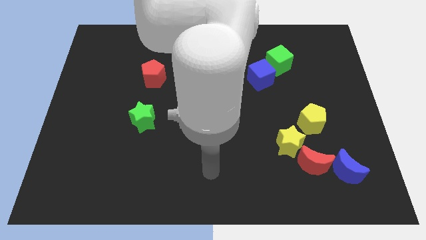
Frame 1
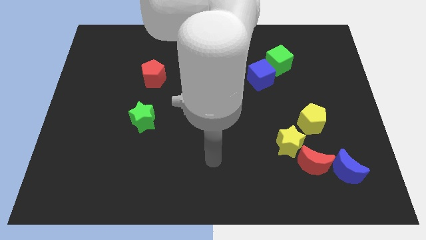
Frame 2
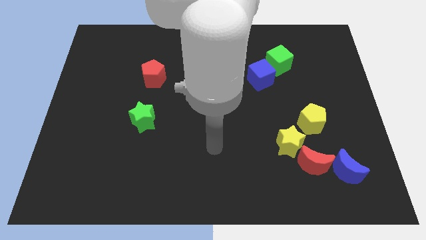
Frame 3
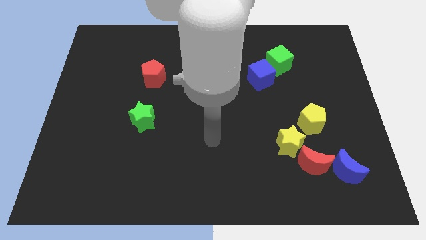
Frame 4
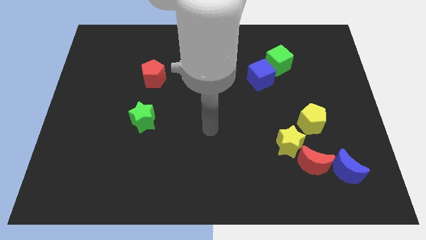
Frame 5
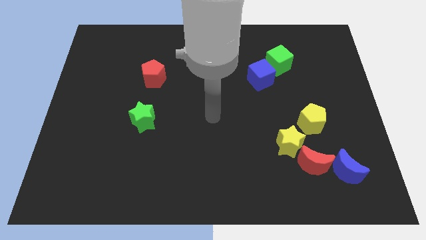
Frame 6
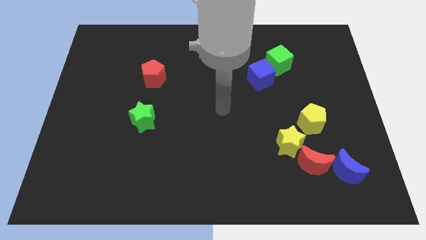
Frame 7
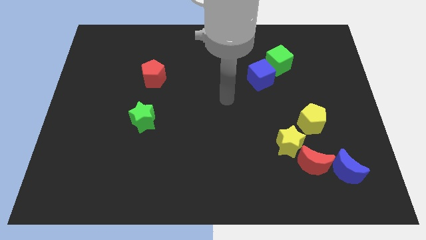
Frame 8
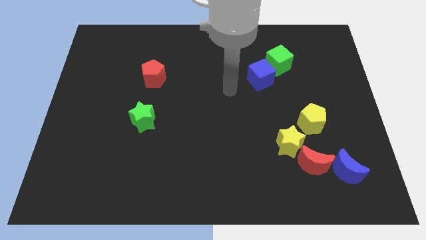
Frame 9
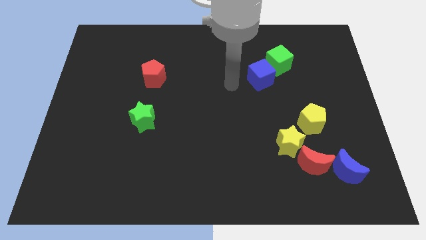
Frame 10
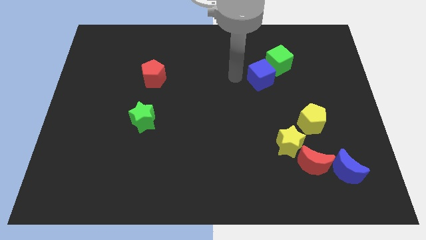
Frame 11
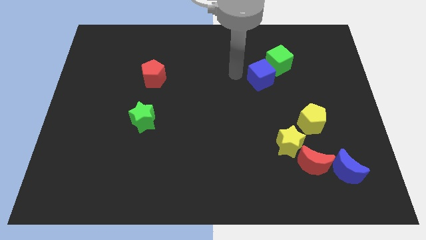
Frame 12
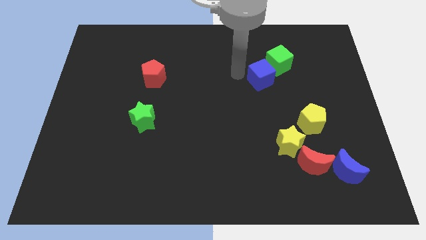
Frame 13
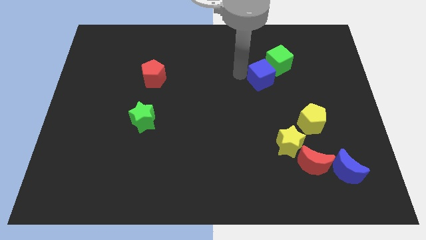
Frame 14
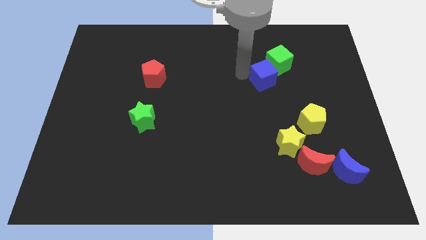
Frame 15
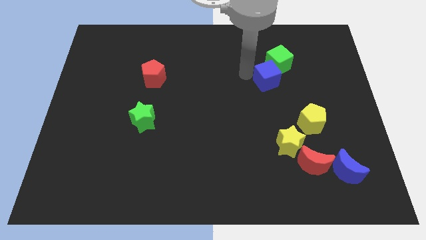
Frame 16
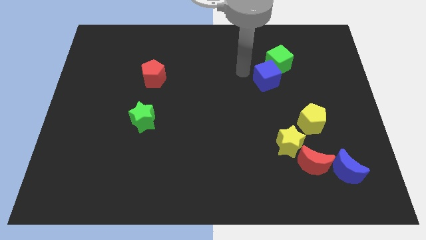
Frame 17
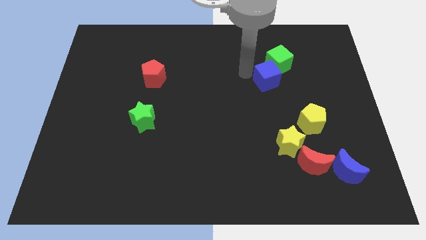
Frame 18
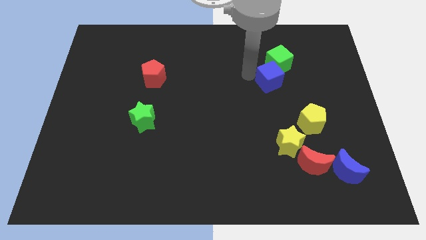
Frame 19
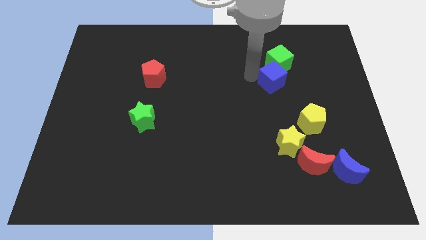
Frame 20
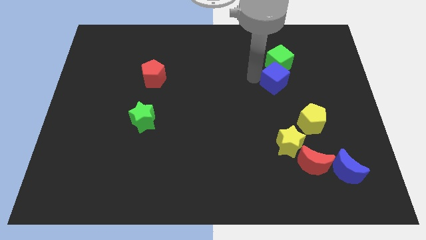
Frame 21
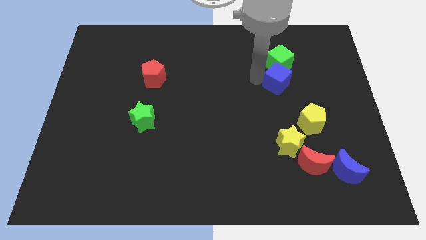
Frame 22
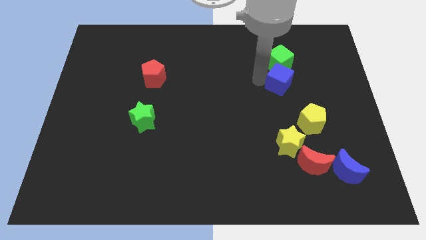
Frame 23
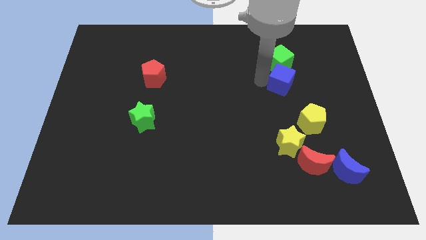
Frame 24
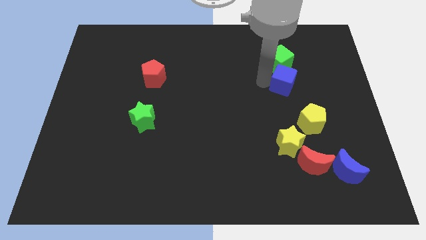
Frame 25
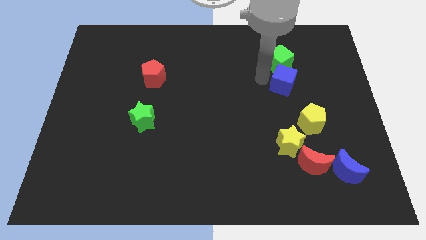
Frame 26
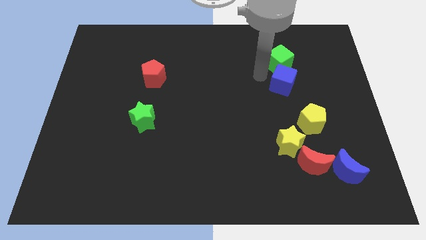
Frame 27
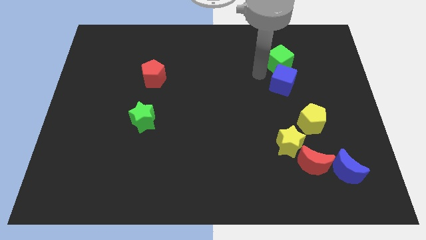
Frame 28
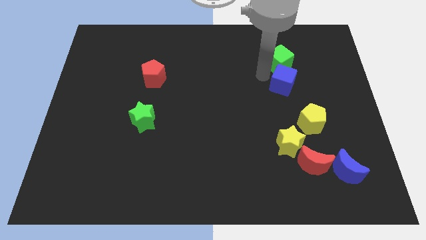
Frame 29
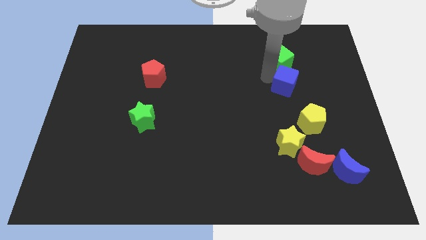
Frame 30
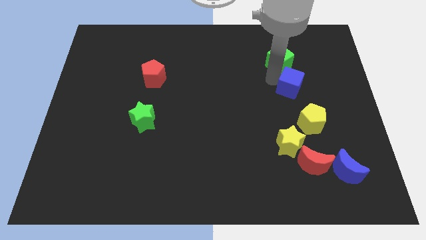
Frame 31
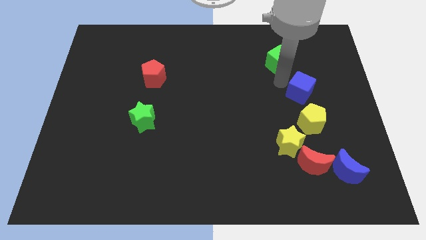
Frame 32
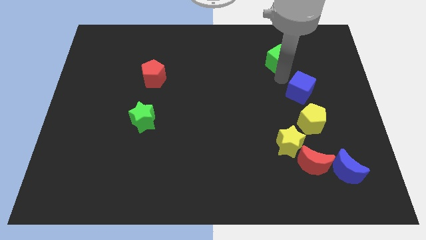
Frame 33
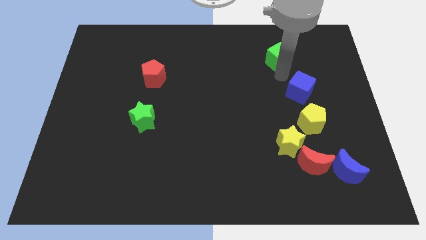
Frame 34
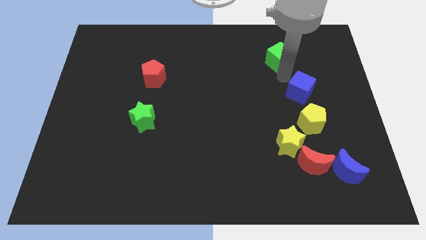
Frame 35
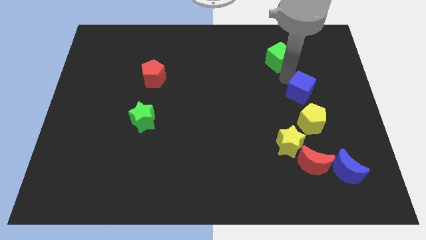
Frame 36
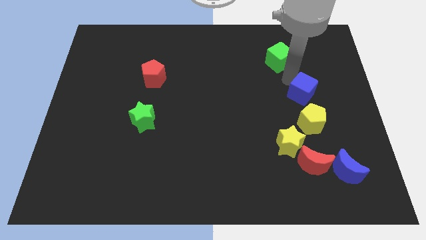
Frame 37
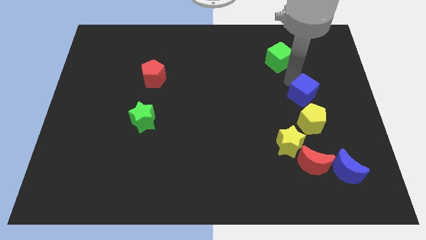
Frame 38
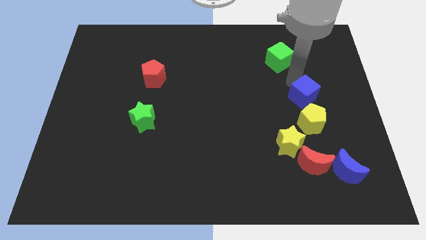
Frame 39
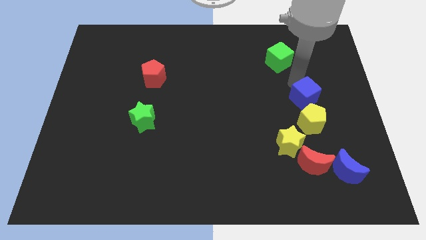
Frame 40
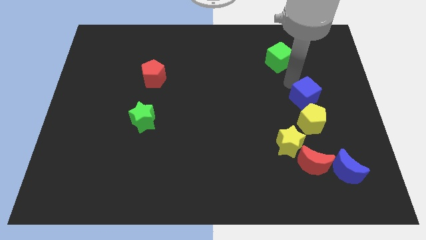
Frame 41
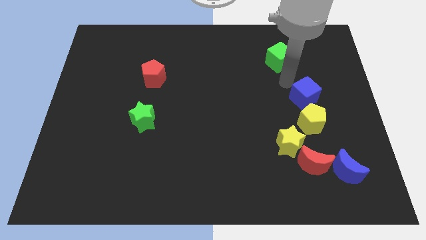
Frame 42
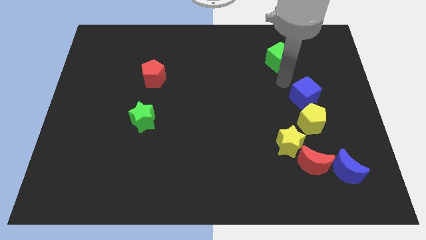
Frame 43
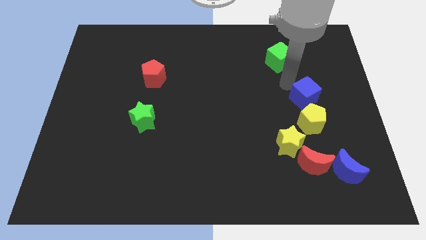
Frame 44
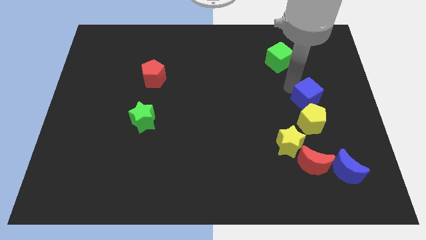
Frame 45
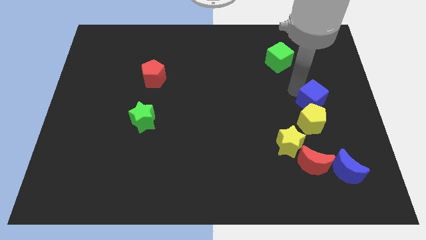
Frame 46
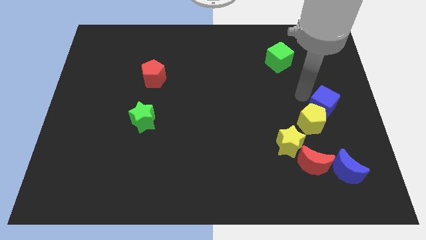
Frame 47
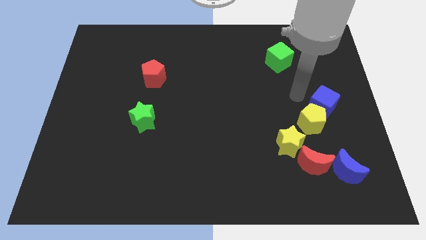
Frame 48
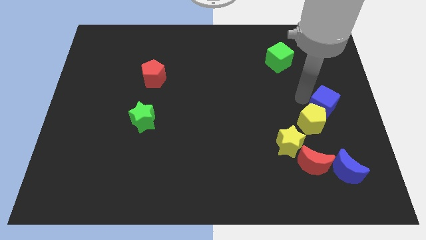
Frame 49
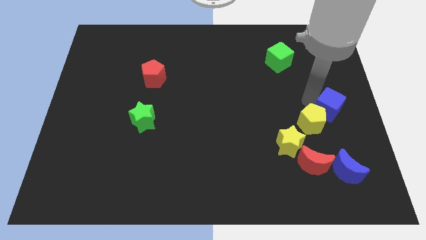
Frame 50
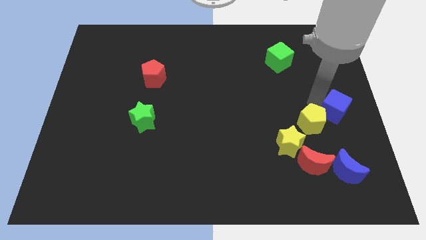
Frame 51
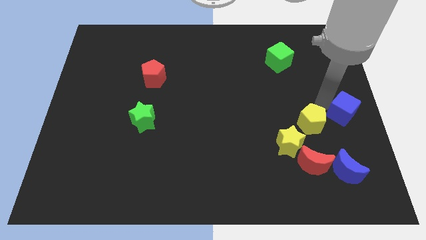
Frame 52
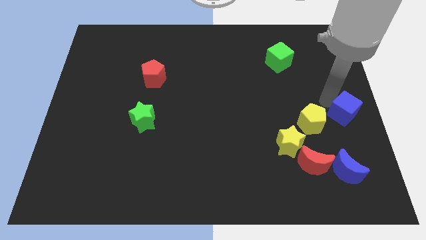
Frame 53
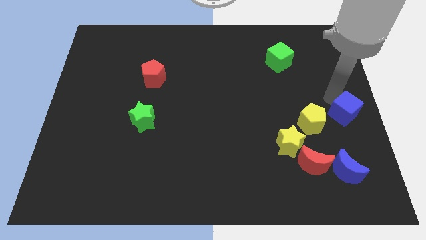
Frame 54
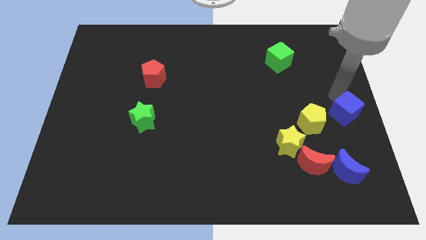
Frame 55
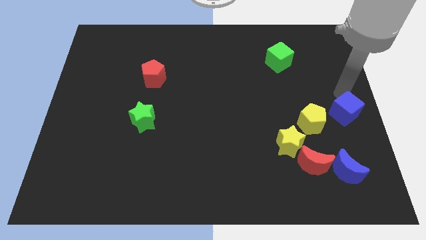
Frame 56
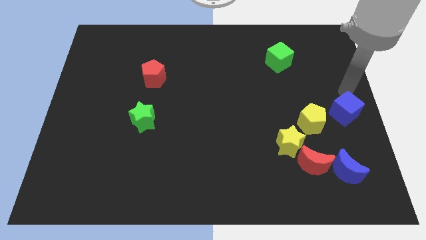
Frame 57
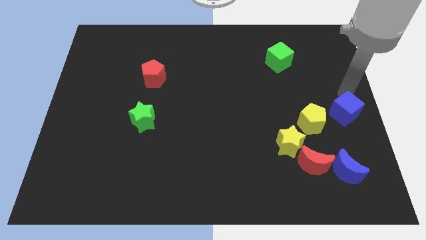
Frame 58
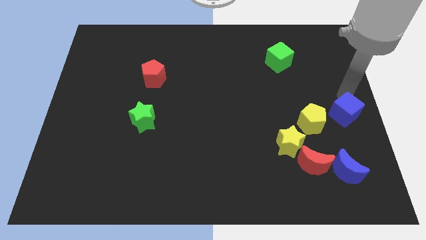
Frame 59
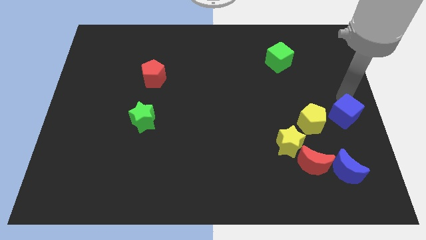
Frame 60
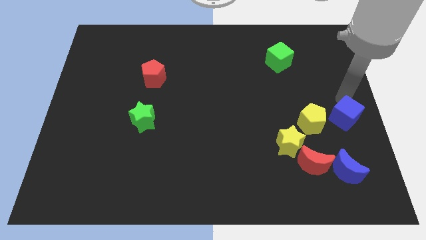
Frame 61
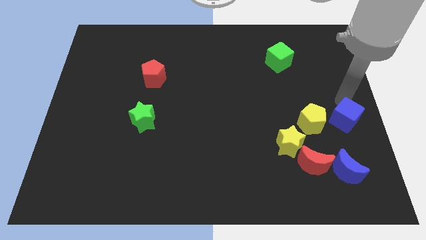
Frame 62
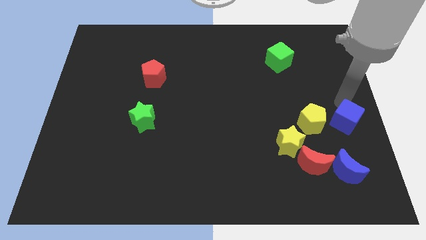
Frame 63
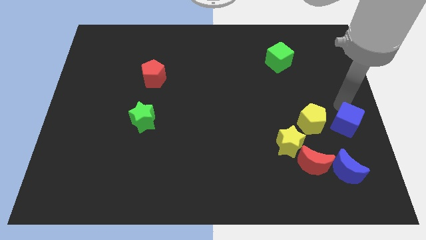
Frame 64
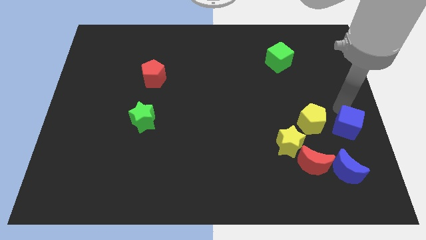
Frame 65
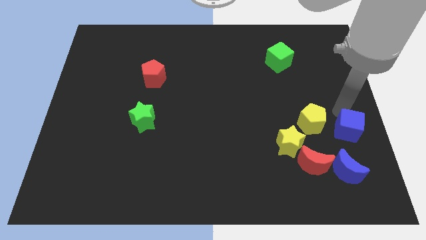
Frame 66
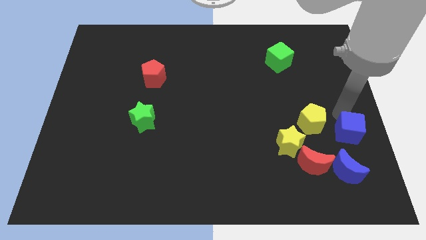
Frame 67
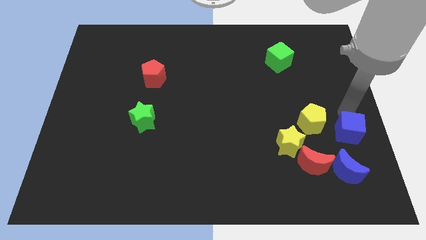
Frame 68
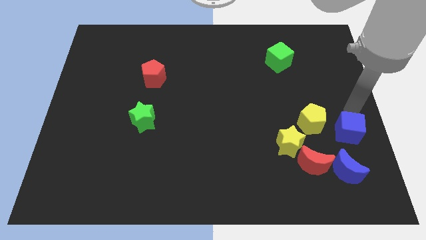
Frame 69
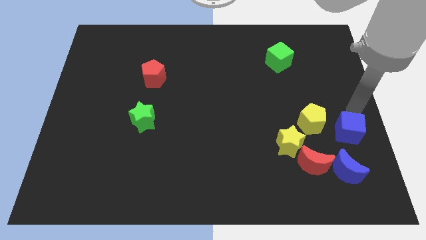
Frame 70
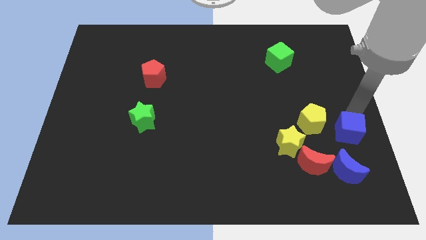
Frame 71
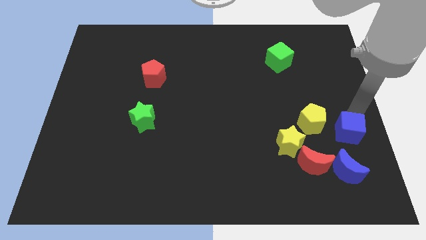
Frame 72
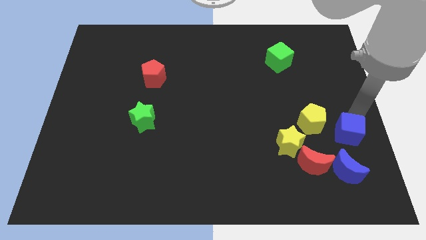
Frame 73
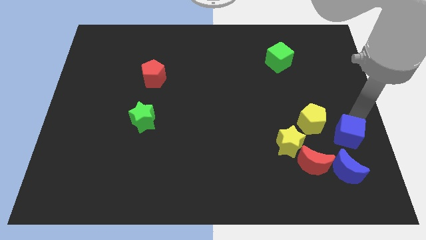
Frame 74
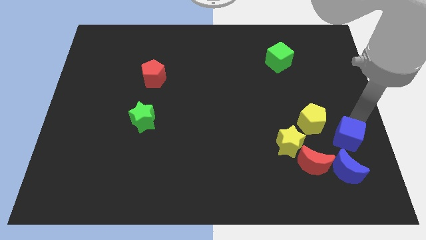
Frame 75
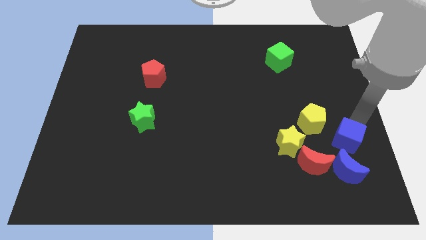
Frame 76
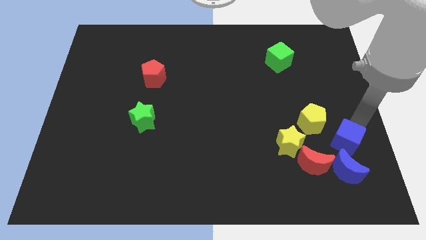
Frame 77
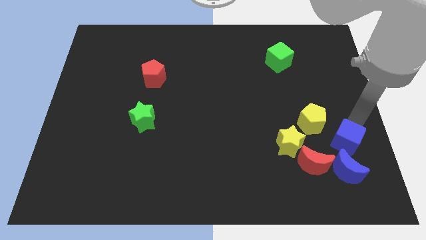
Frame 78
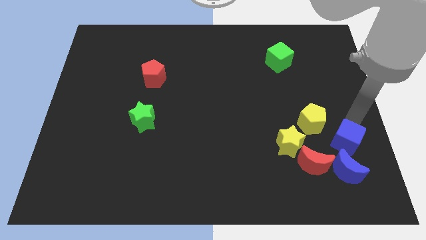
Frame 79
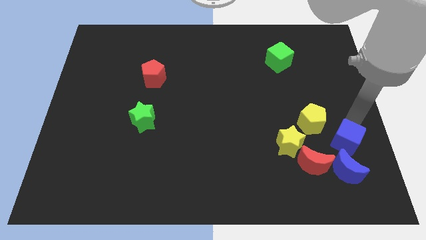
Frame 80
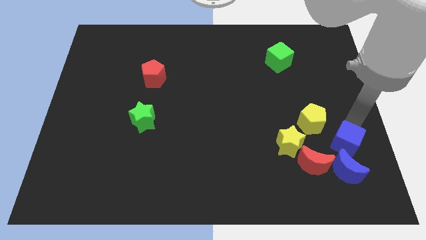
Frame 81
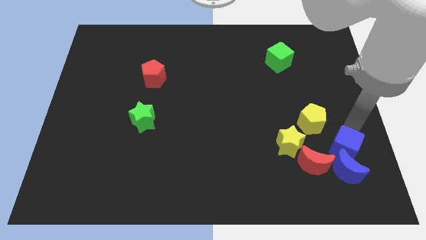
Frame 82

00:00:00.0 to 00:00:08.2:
slide the blue cube next to the blue moon
